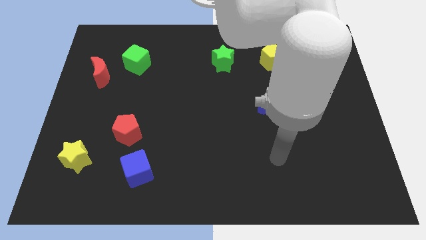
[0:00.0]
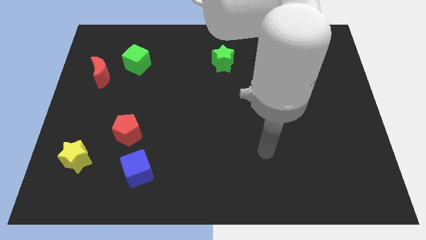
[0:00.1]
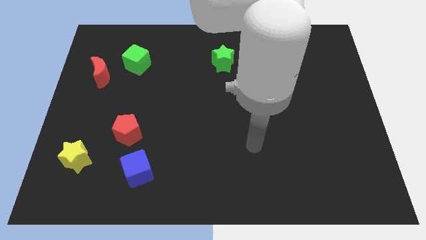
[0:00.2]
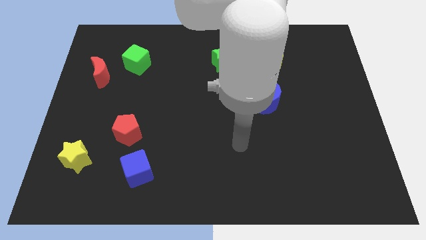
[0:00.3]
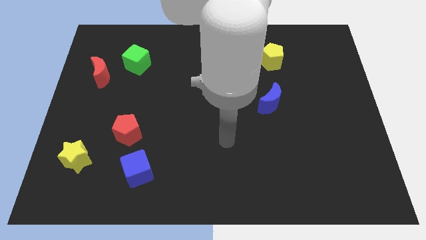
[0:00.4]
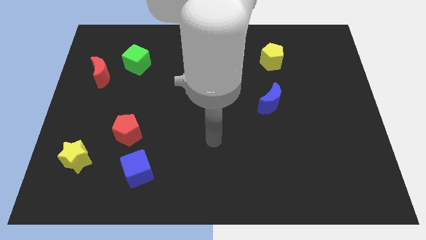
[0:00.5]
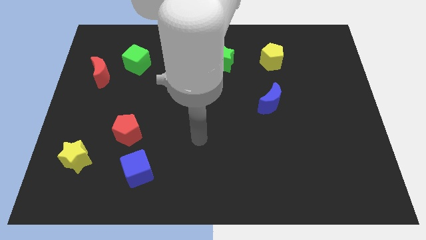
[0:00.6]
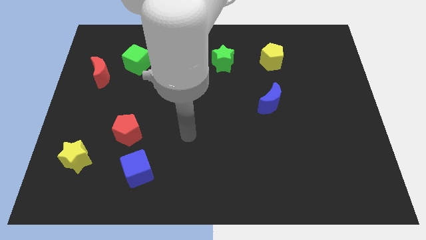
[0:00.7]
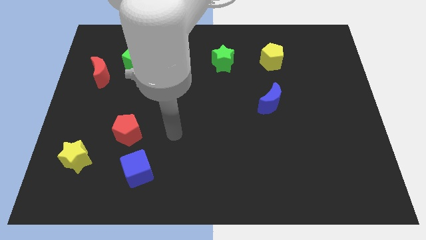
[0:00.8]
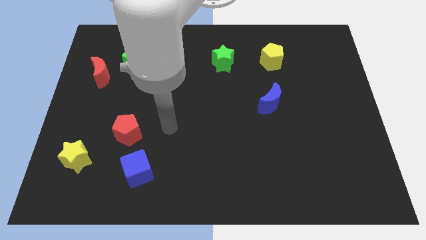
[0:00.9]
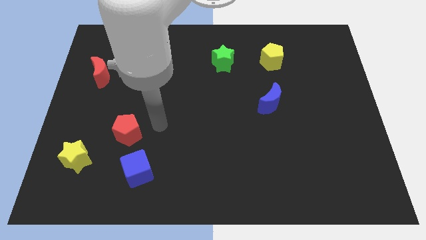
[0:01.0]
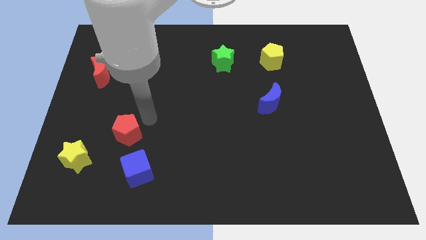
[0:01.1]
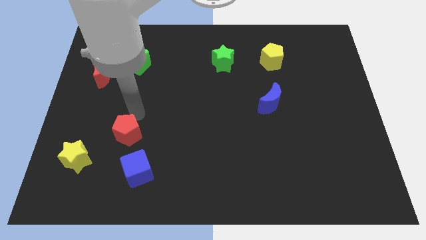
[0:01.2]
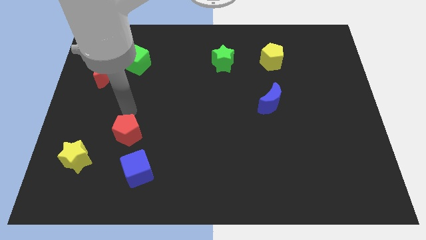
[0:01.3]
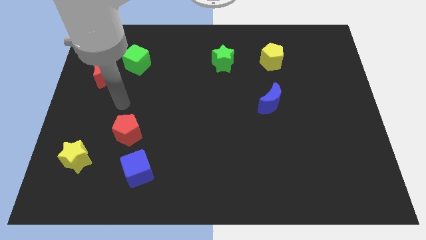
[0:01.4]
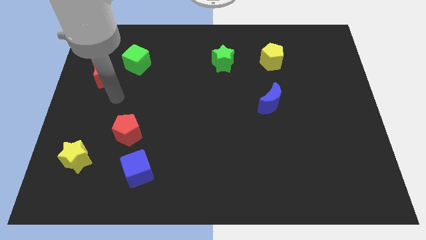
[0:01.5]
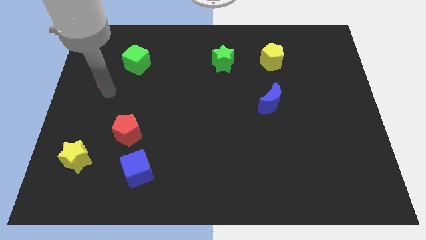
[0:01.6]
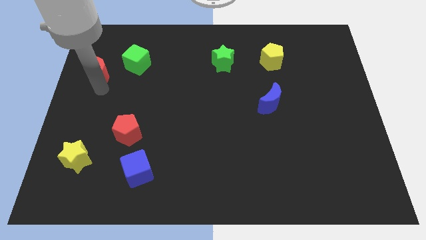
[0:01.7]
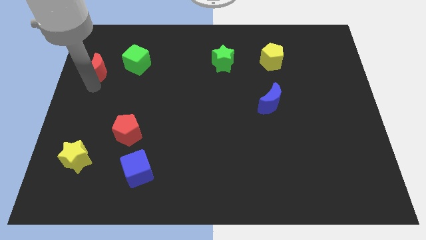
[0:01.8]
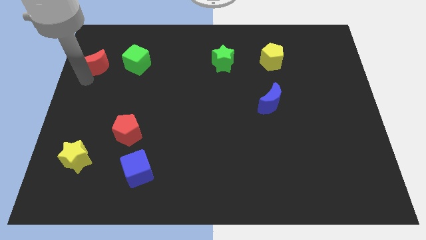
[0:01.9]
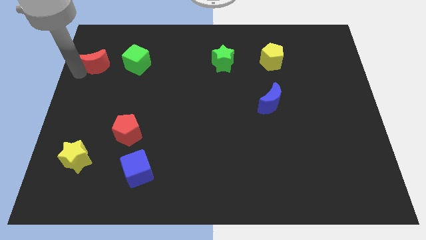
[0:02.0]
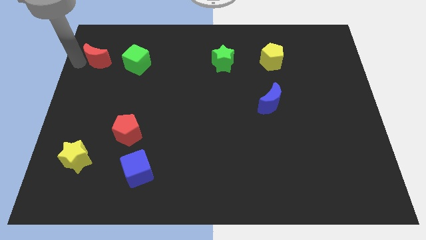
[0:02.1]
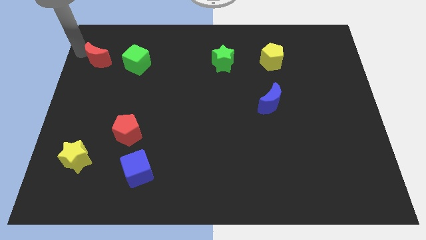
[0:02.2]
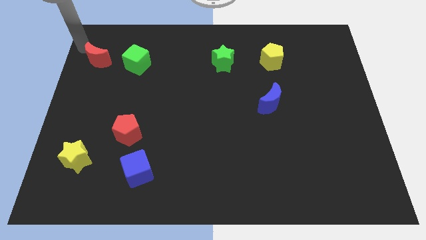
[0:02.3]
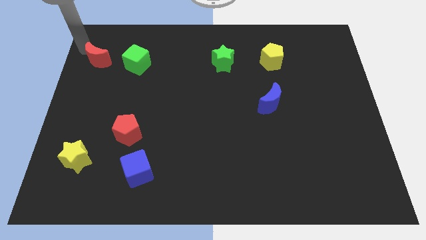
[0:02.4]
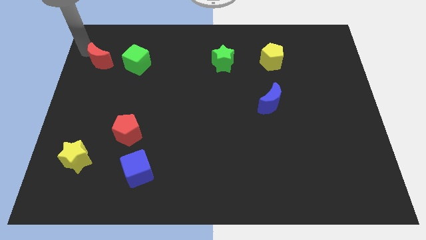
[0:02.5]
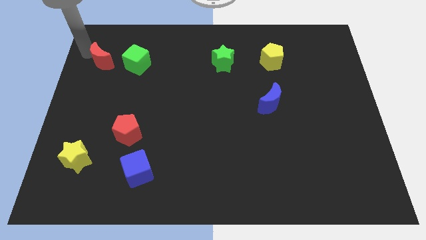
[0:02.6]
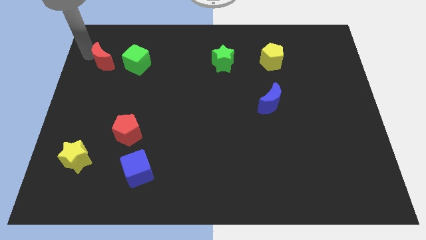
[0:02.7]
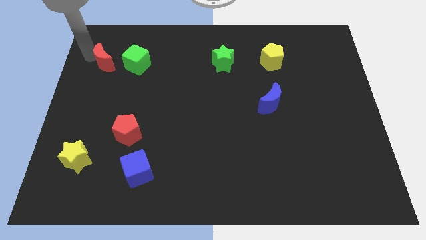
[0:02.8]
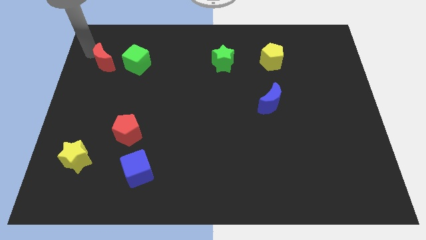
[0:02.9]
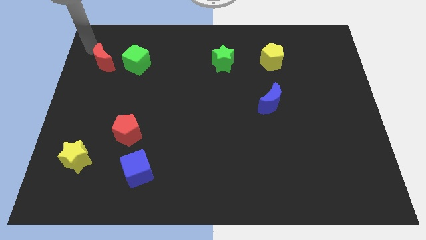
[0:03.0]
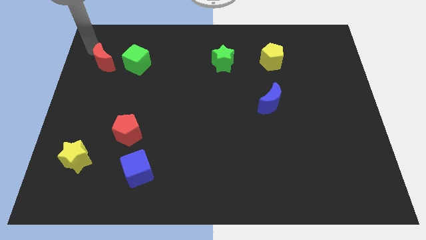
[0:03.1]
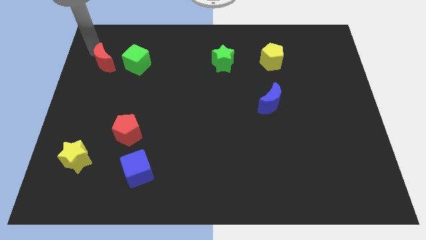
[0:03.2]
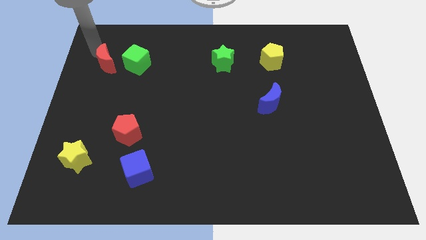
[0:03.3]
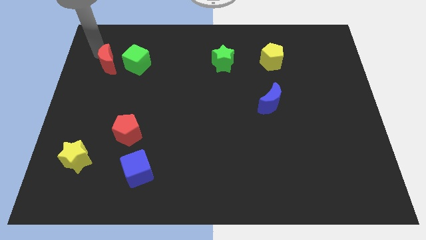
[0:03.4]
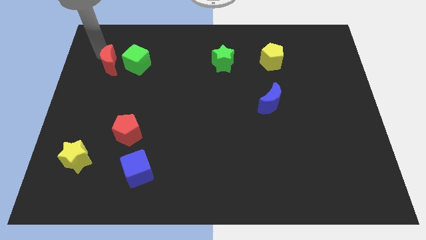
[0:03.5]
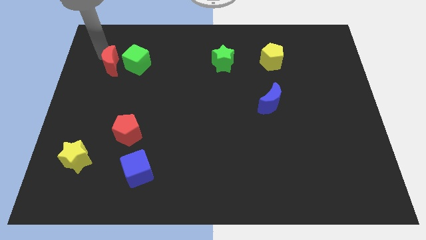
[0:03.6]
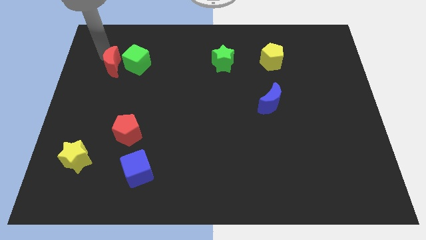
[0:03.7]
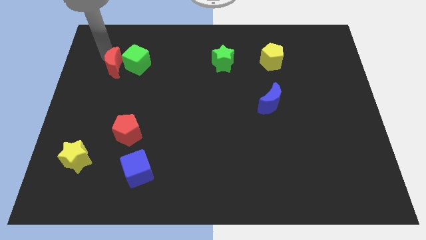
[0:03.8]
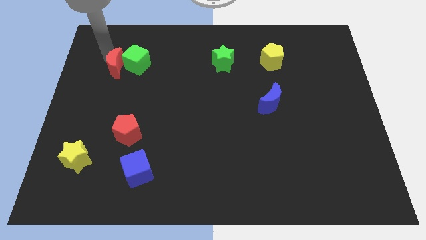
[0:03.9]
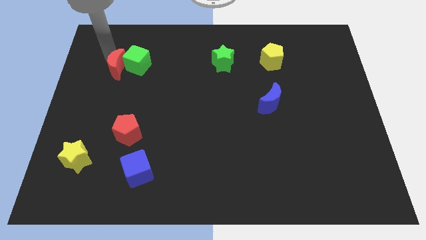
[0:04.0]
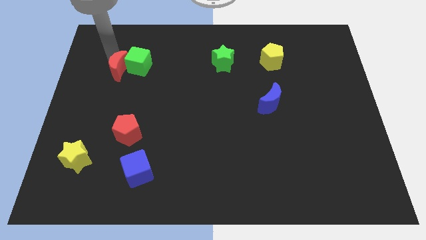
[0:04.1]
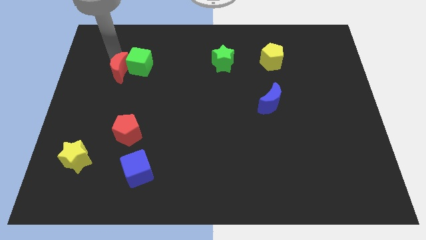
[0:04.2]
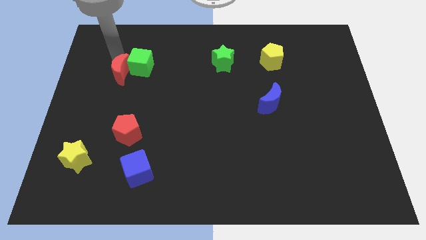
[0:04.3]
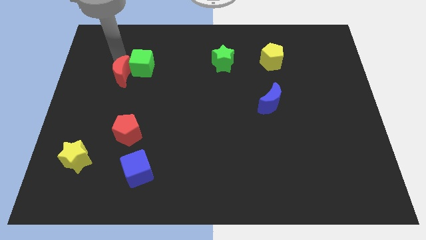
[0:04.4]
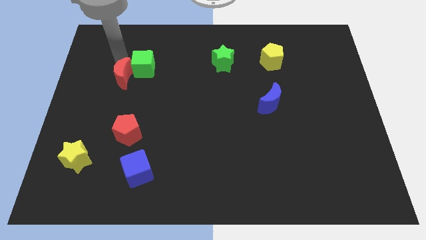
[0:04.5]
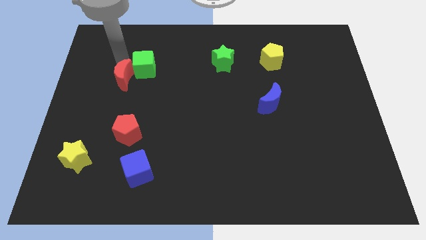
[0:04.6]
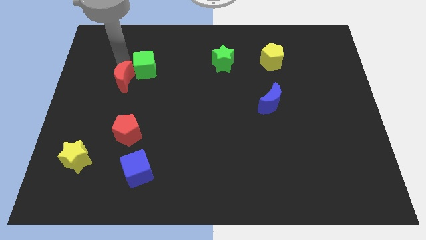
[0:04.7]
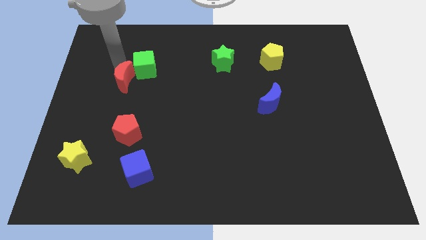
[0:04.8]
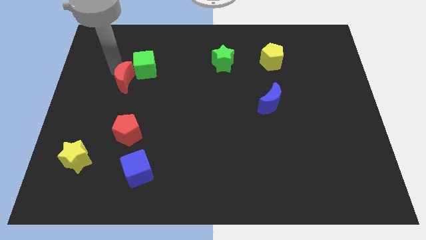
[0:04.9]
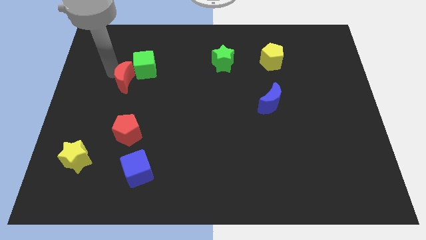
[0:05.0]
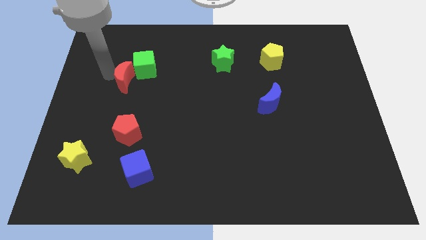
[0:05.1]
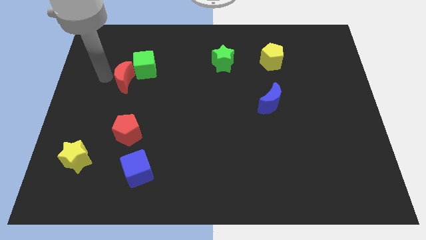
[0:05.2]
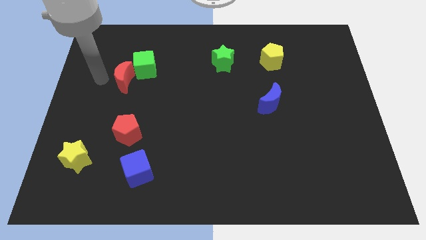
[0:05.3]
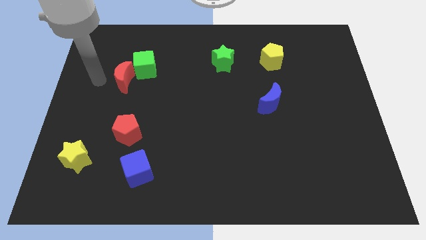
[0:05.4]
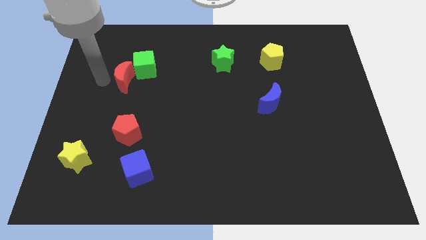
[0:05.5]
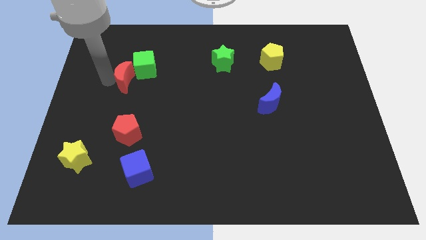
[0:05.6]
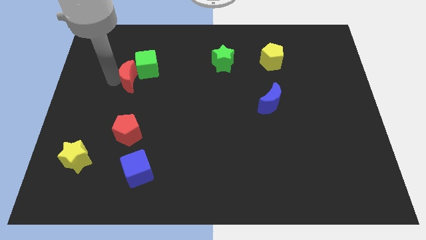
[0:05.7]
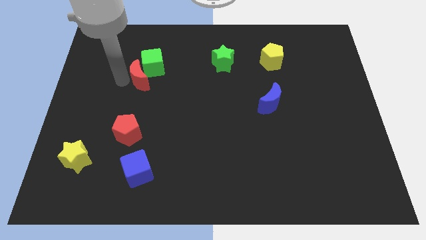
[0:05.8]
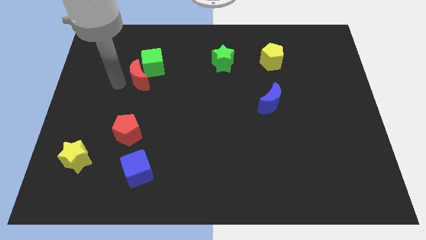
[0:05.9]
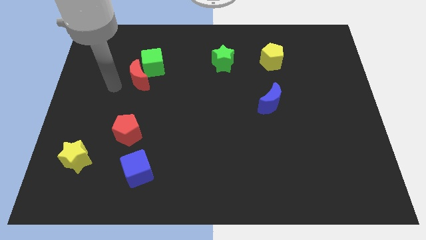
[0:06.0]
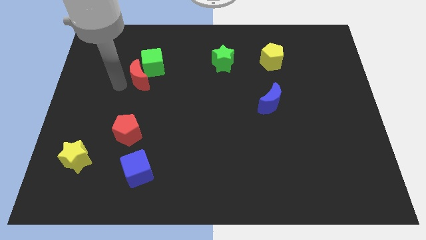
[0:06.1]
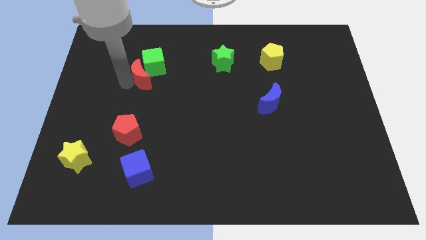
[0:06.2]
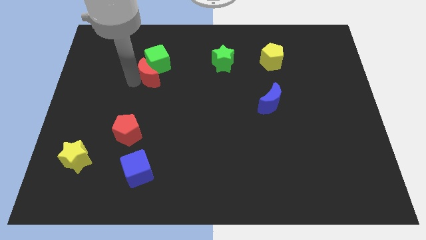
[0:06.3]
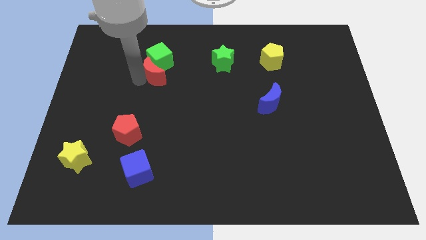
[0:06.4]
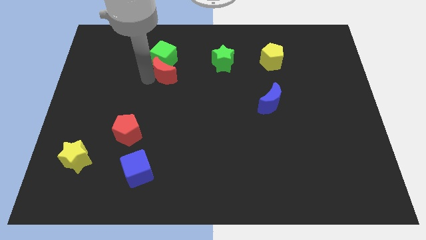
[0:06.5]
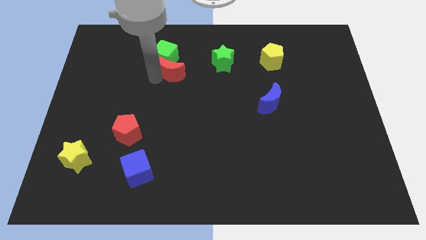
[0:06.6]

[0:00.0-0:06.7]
put the red moon just left of the green star
